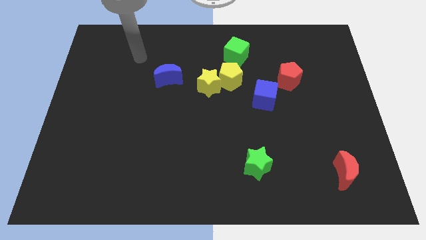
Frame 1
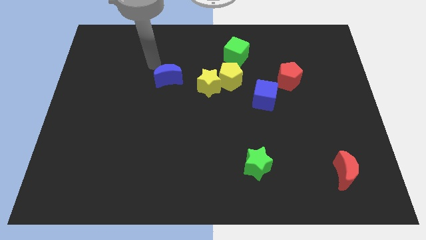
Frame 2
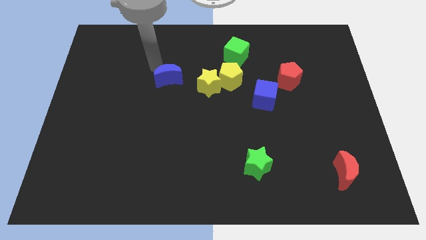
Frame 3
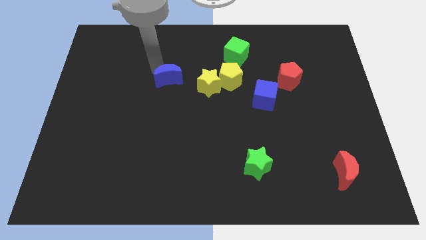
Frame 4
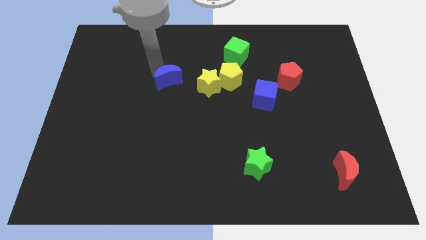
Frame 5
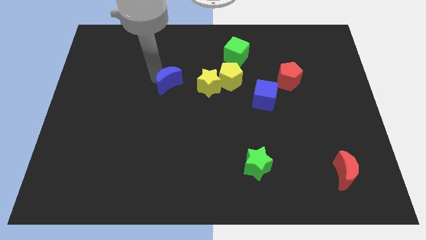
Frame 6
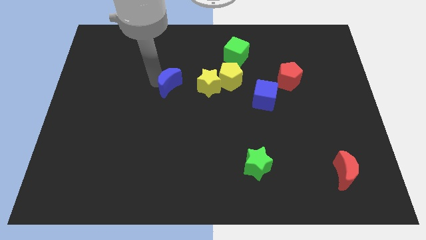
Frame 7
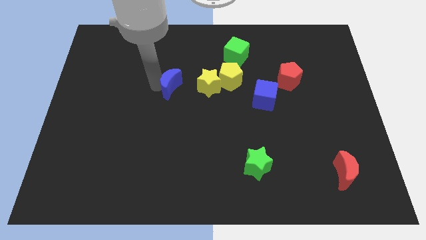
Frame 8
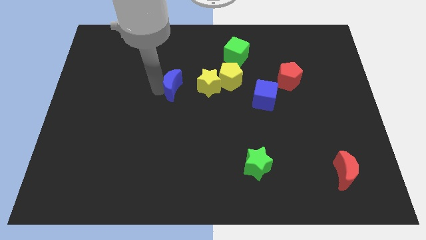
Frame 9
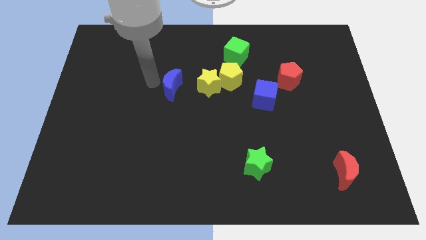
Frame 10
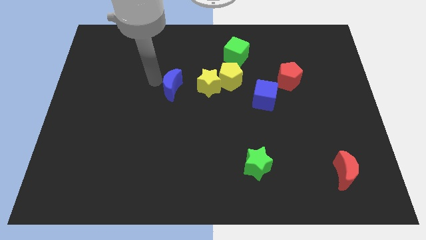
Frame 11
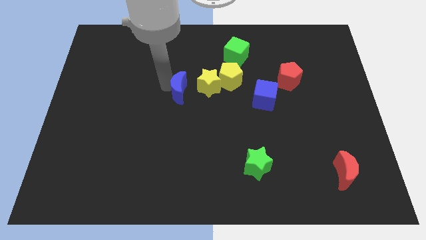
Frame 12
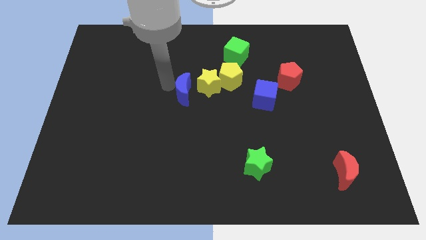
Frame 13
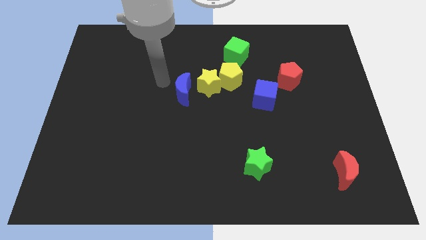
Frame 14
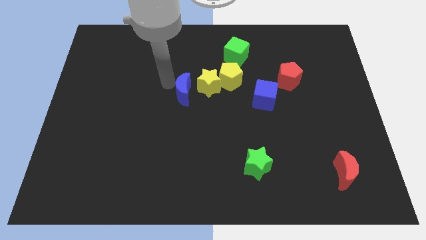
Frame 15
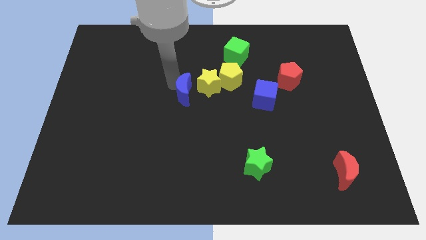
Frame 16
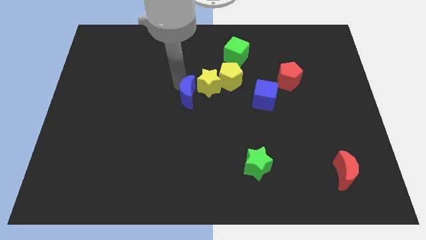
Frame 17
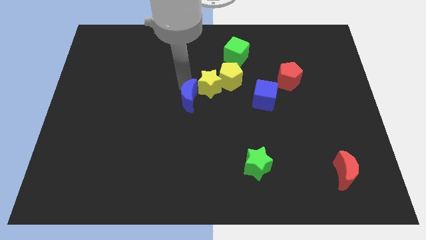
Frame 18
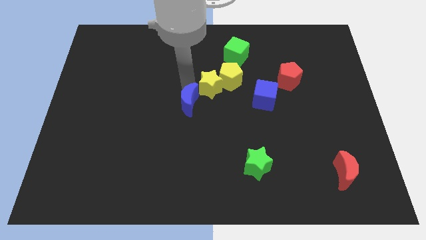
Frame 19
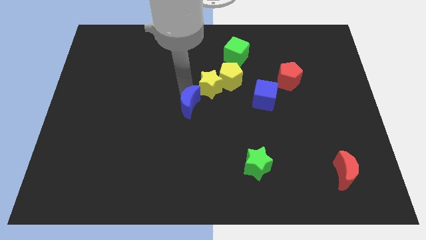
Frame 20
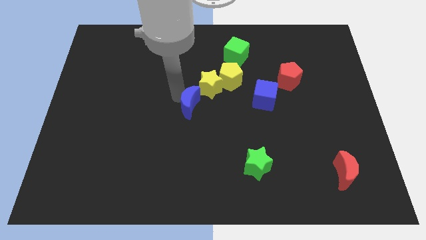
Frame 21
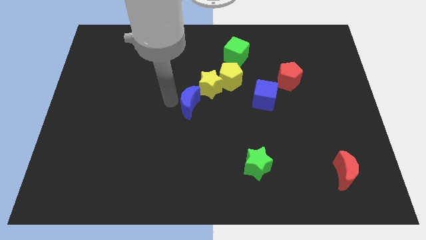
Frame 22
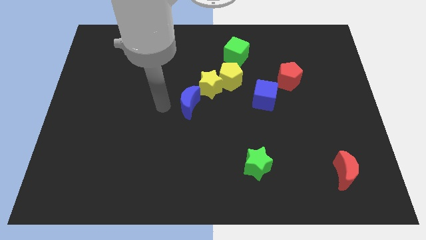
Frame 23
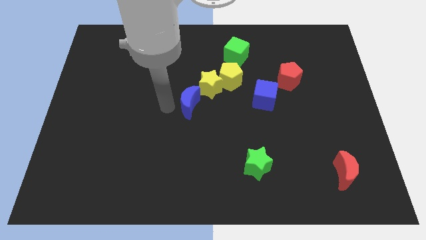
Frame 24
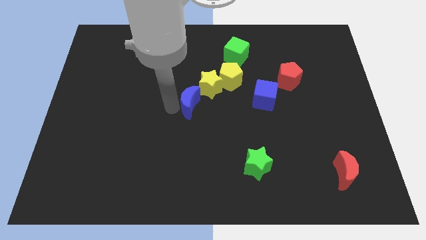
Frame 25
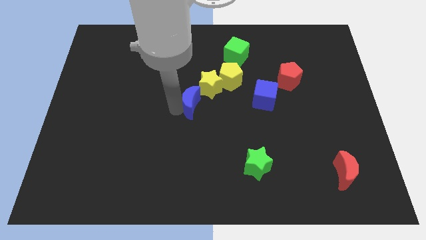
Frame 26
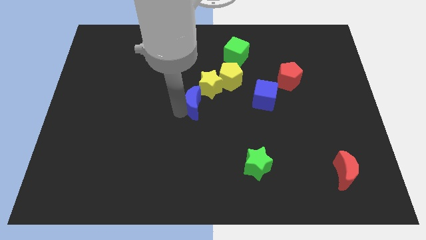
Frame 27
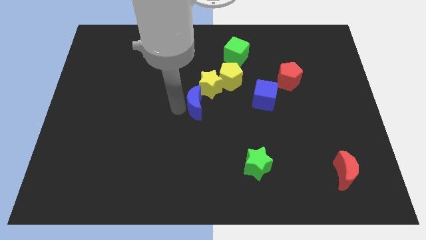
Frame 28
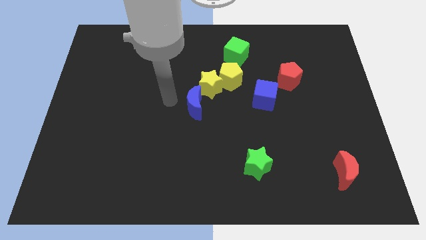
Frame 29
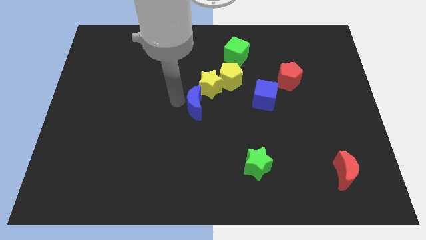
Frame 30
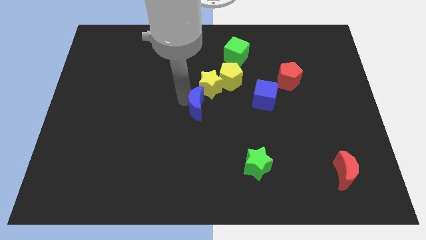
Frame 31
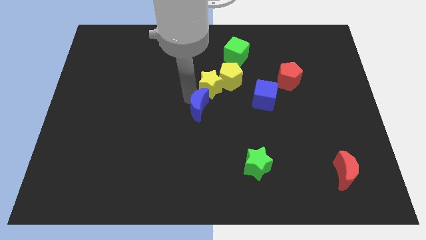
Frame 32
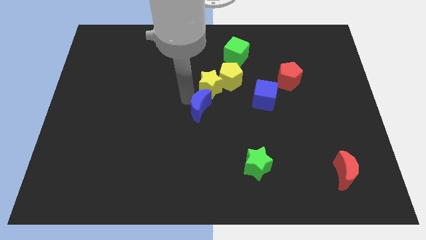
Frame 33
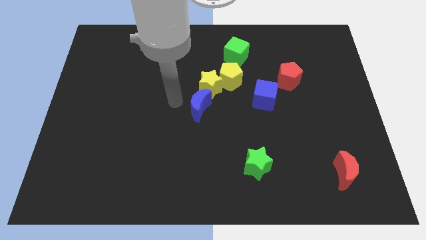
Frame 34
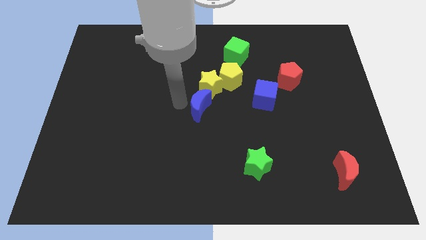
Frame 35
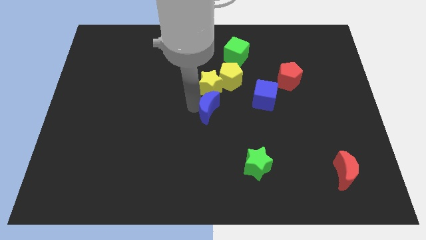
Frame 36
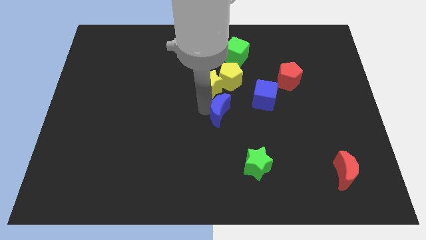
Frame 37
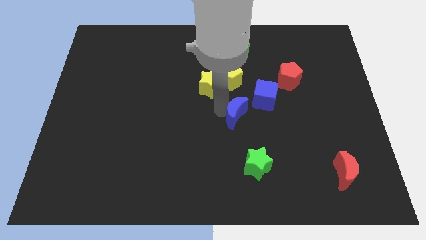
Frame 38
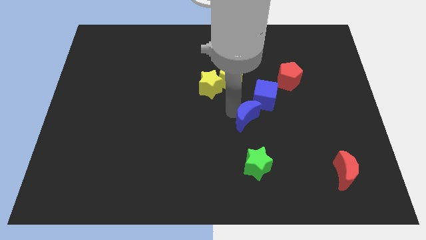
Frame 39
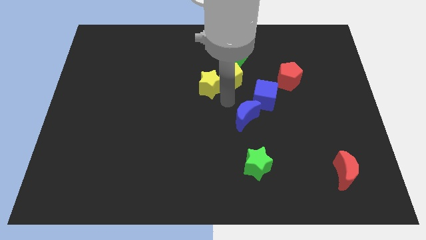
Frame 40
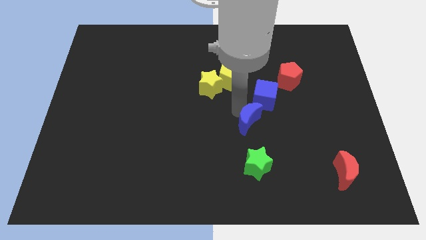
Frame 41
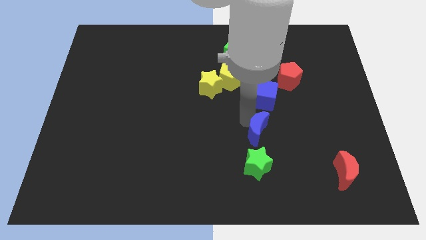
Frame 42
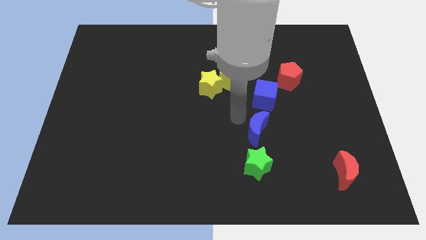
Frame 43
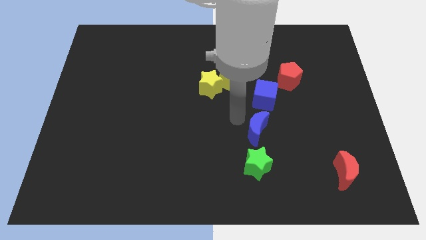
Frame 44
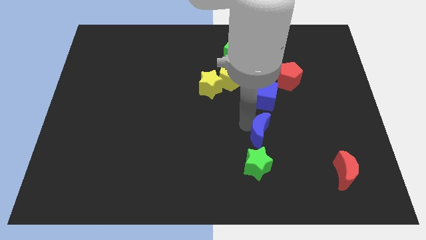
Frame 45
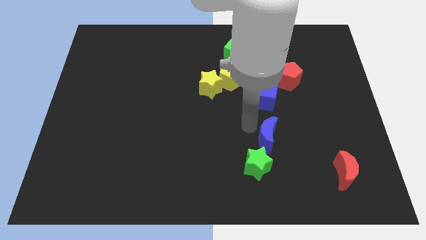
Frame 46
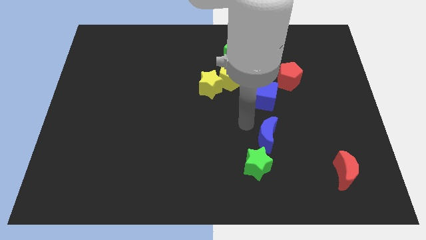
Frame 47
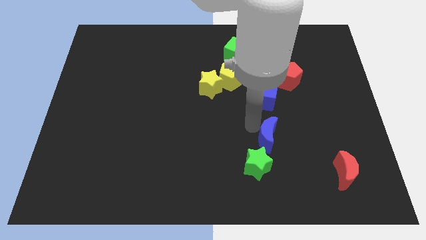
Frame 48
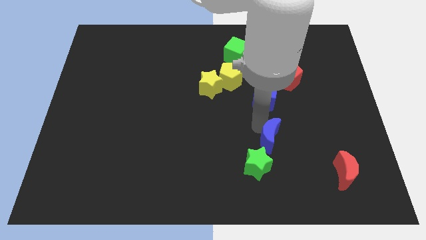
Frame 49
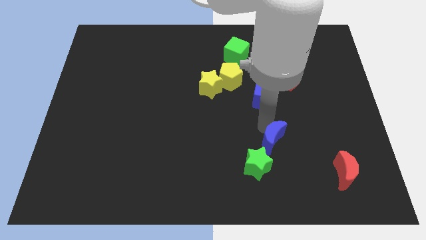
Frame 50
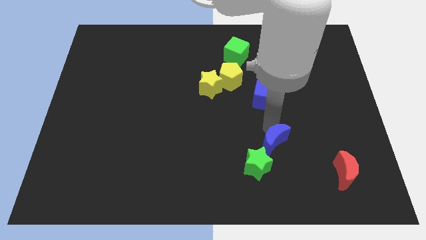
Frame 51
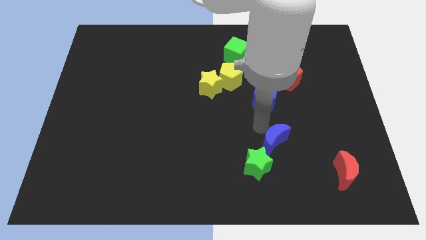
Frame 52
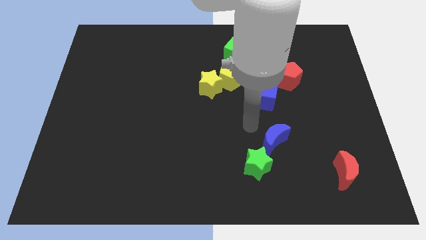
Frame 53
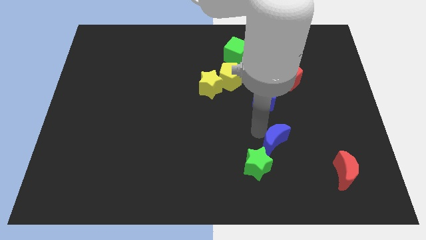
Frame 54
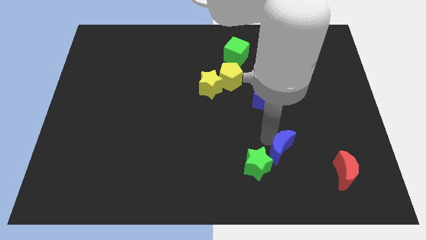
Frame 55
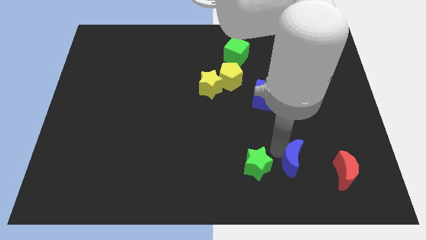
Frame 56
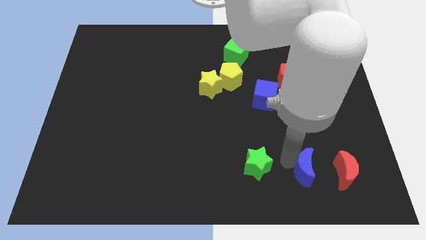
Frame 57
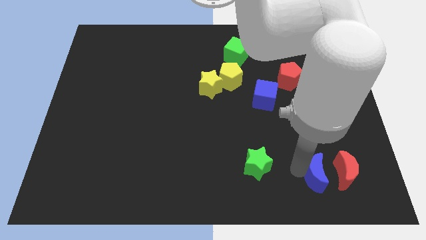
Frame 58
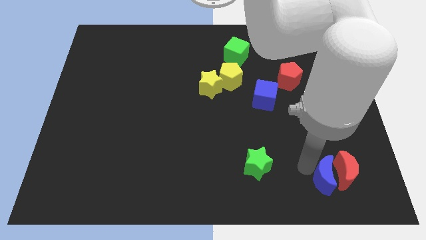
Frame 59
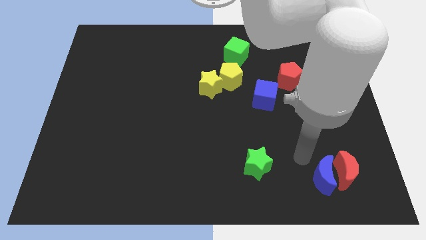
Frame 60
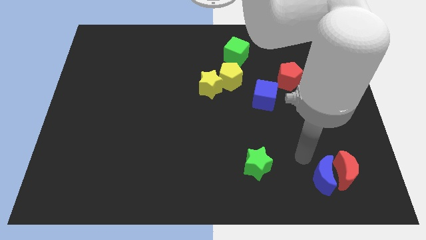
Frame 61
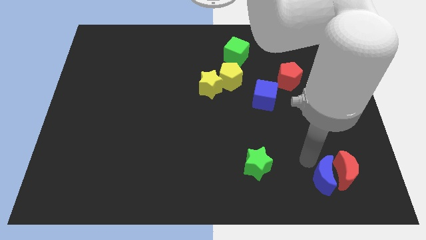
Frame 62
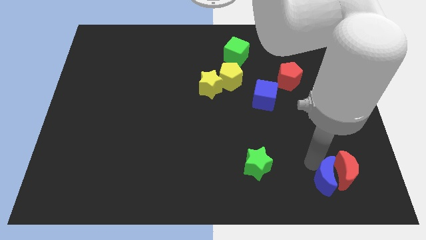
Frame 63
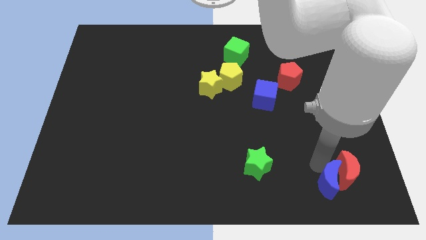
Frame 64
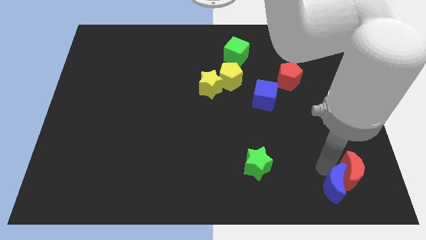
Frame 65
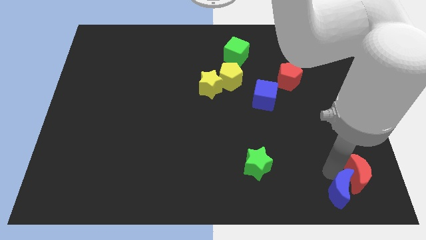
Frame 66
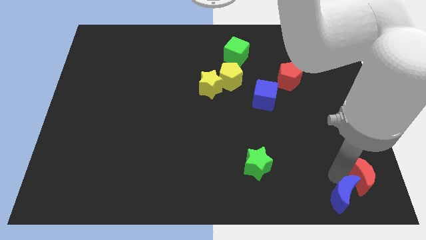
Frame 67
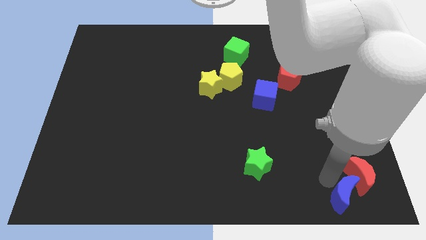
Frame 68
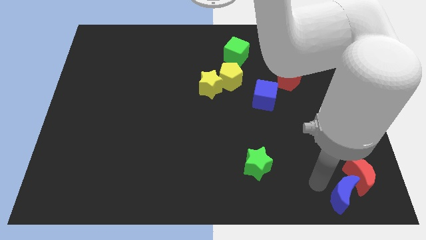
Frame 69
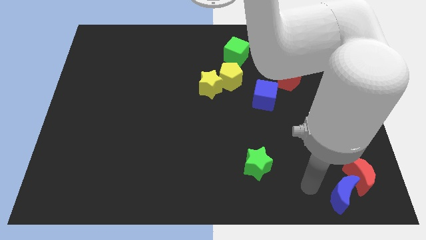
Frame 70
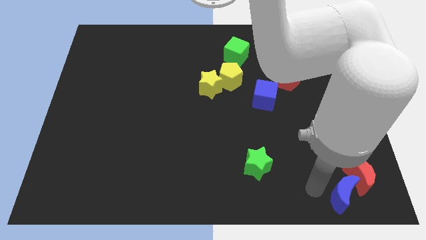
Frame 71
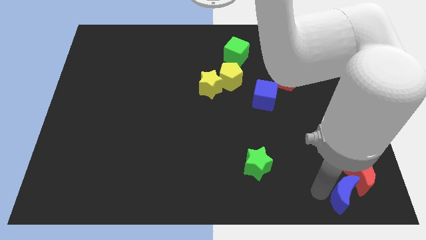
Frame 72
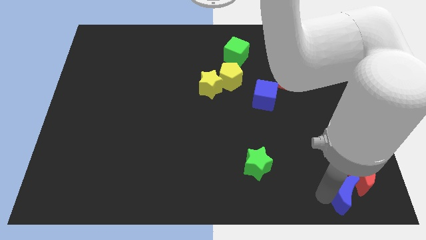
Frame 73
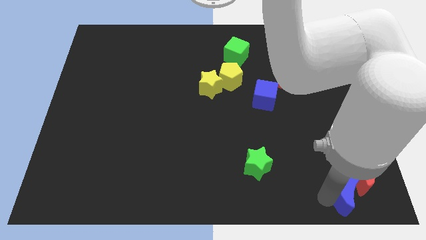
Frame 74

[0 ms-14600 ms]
push the blue moon to the lower right corner

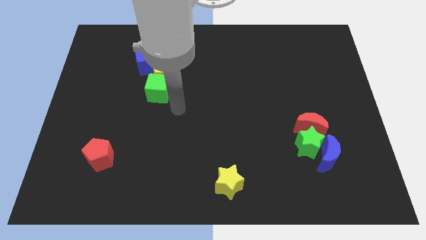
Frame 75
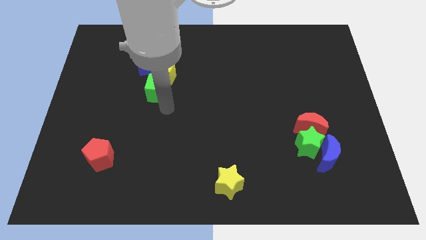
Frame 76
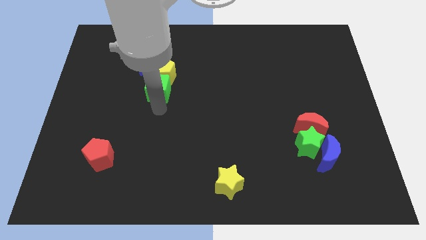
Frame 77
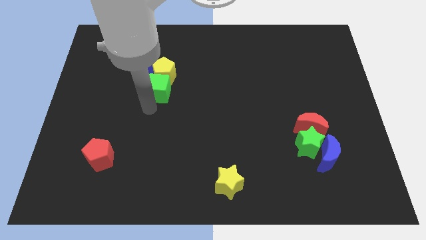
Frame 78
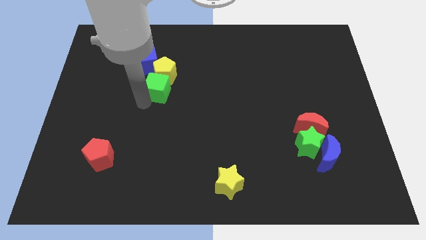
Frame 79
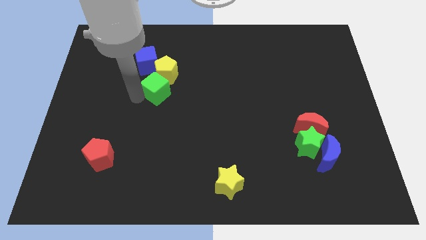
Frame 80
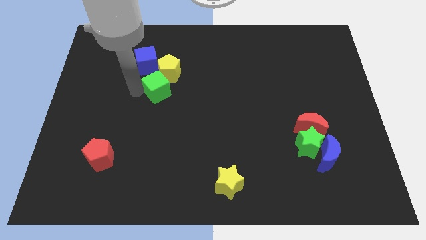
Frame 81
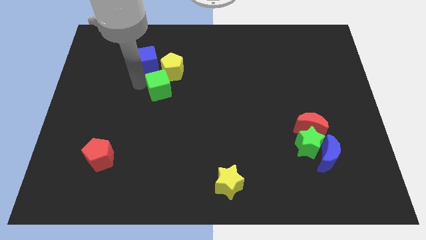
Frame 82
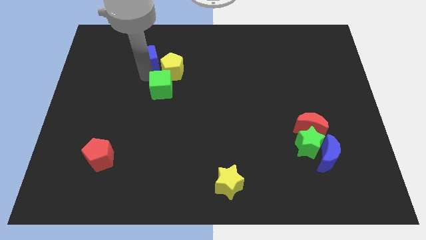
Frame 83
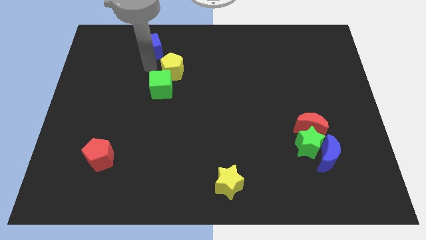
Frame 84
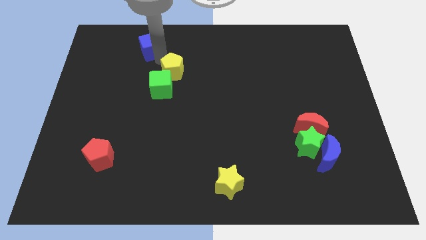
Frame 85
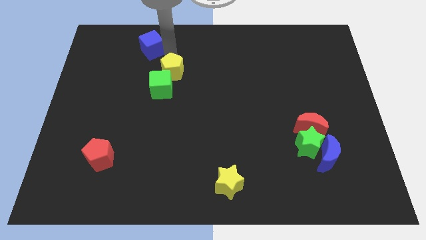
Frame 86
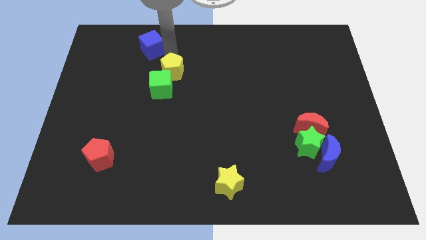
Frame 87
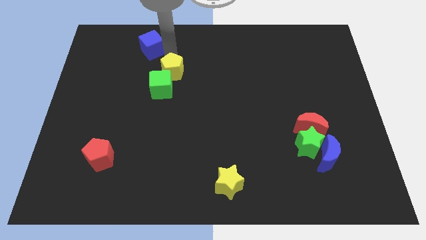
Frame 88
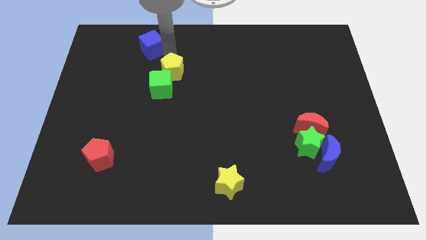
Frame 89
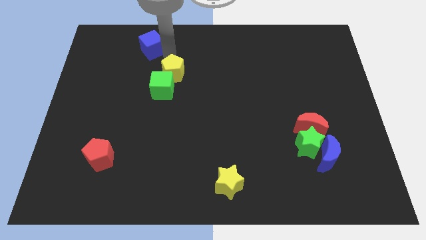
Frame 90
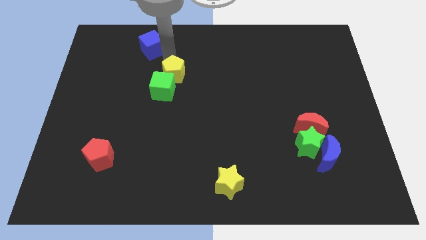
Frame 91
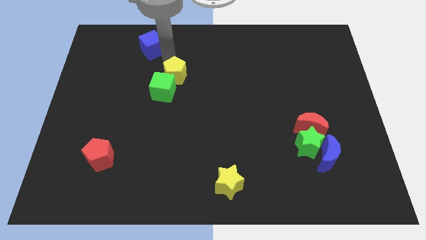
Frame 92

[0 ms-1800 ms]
move the yellow pentagon to the middle of the board
